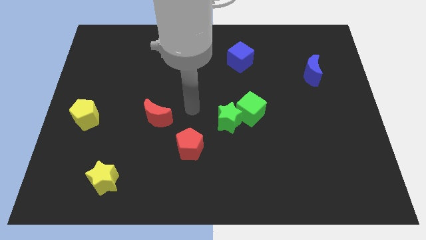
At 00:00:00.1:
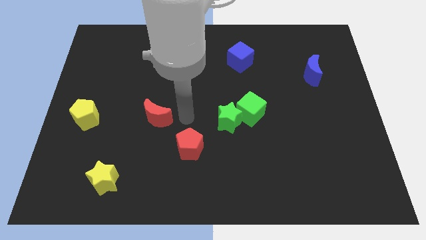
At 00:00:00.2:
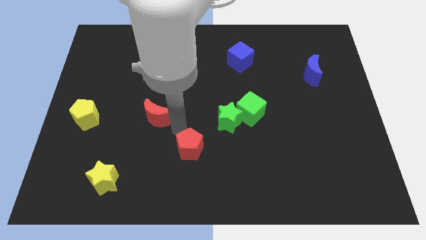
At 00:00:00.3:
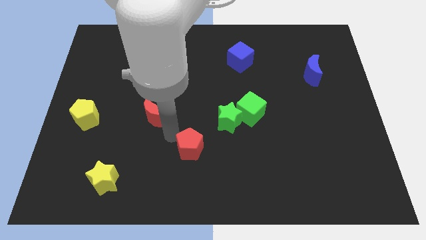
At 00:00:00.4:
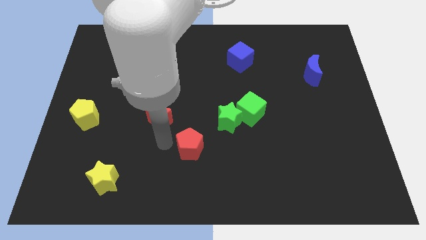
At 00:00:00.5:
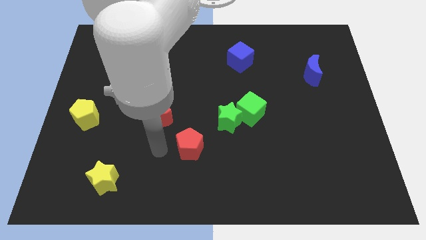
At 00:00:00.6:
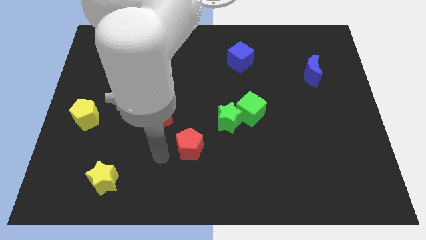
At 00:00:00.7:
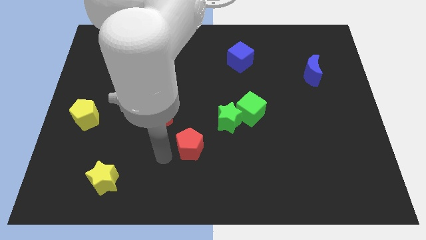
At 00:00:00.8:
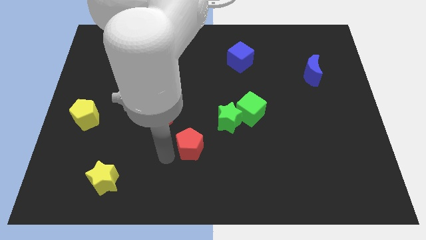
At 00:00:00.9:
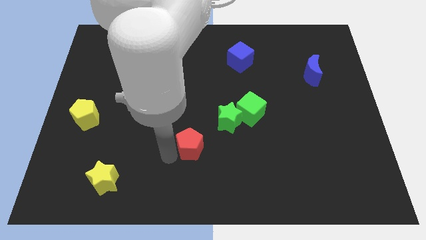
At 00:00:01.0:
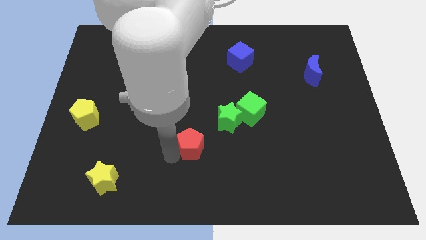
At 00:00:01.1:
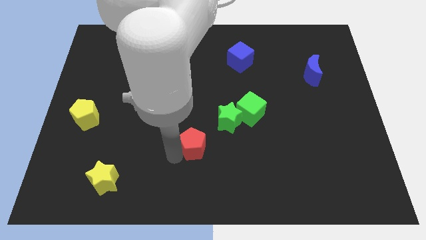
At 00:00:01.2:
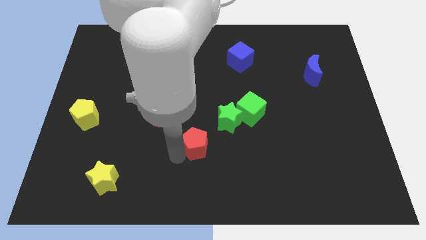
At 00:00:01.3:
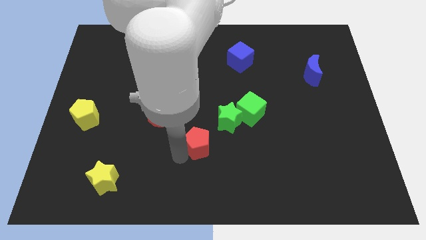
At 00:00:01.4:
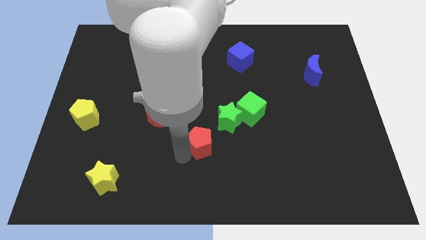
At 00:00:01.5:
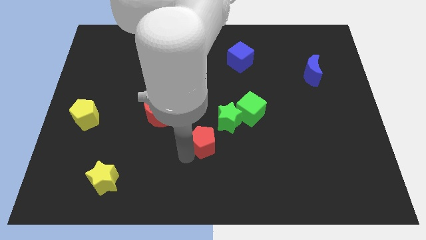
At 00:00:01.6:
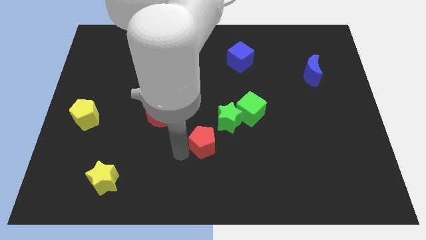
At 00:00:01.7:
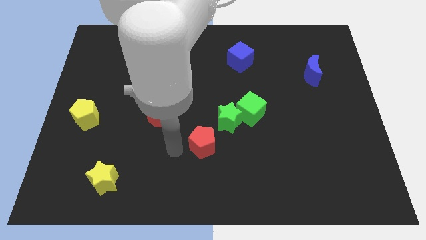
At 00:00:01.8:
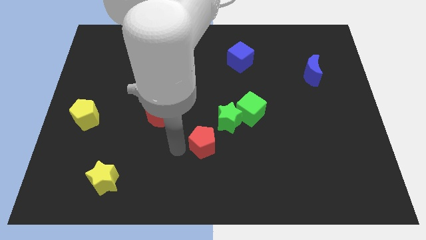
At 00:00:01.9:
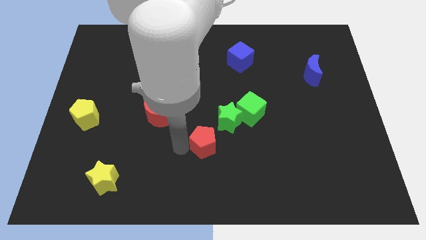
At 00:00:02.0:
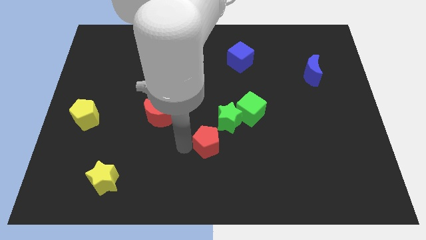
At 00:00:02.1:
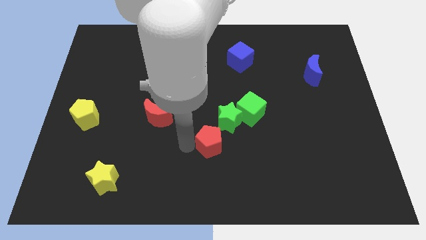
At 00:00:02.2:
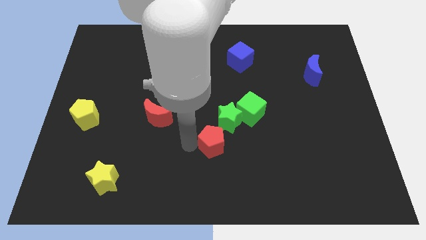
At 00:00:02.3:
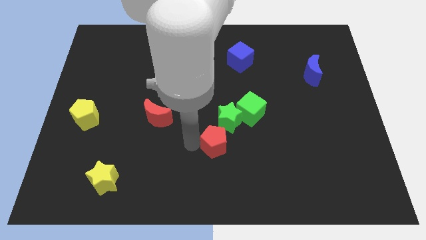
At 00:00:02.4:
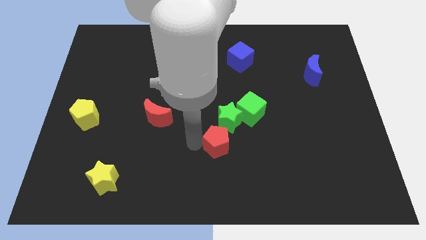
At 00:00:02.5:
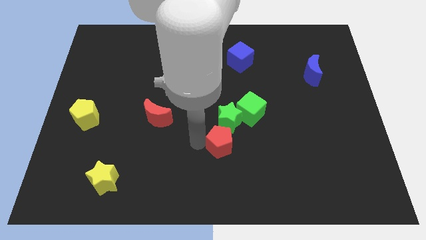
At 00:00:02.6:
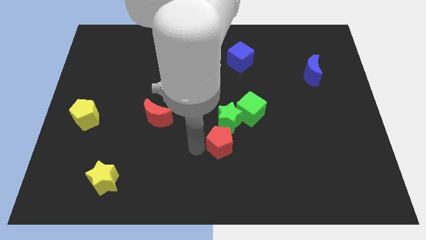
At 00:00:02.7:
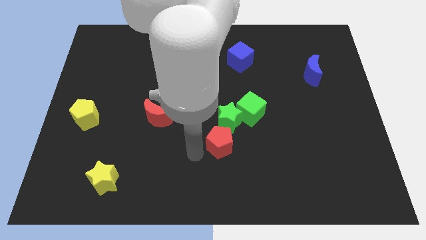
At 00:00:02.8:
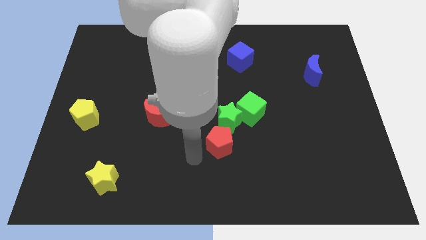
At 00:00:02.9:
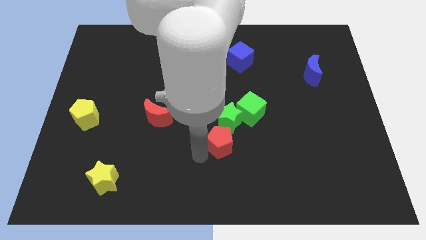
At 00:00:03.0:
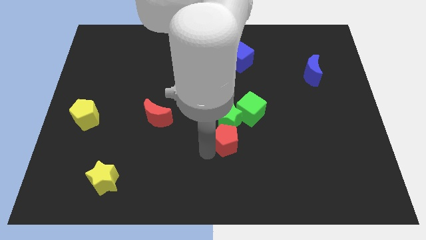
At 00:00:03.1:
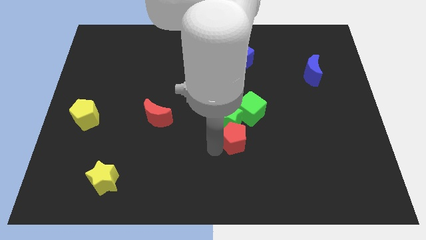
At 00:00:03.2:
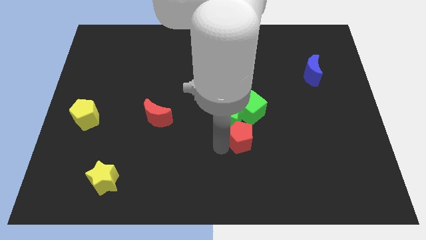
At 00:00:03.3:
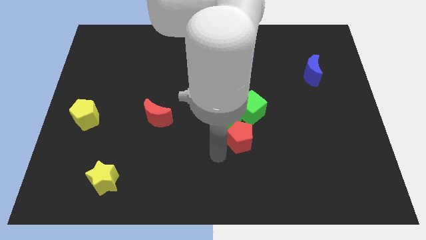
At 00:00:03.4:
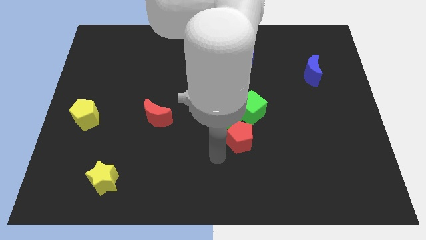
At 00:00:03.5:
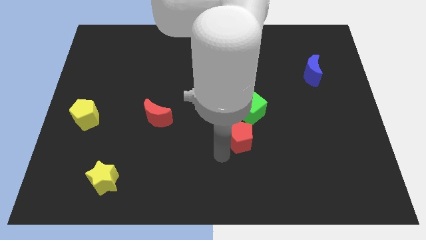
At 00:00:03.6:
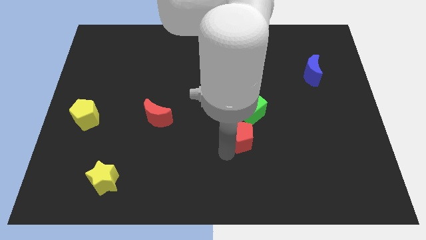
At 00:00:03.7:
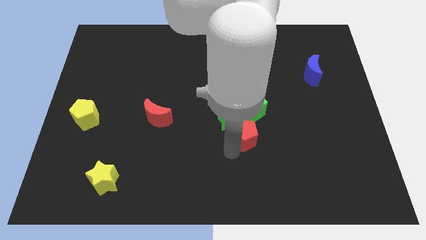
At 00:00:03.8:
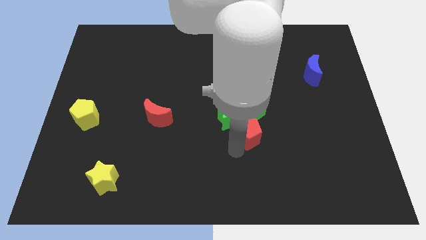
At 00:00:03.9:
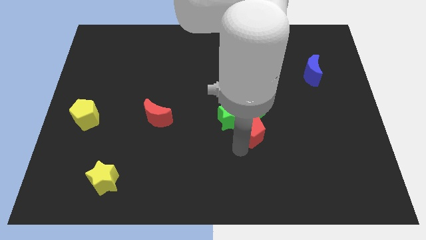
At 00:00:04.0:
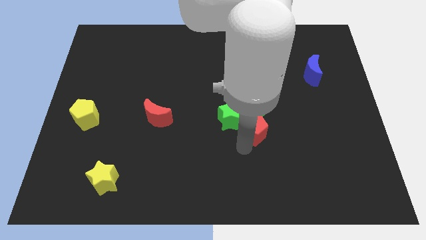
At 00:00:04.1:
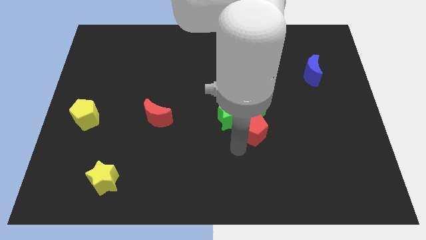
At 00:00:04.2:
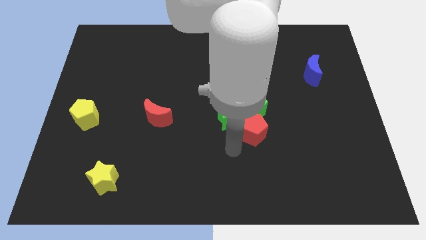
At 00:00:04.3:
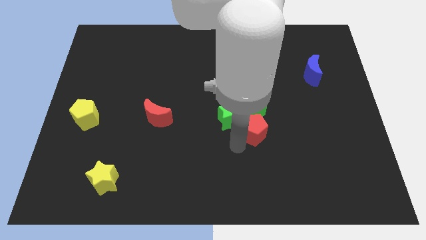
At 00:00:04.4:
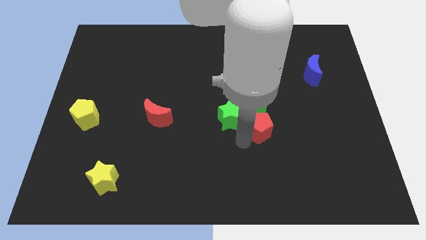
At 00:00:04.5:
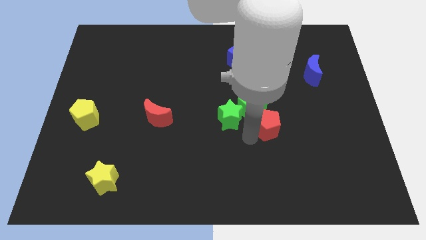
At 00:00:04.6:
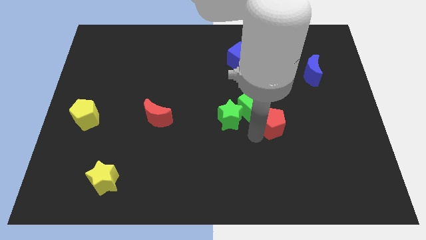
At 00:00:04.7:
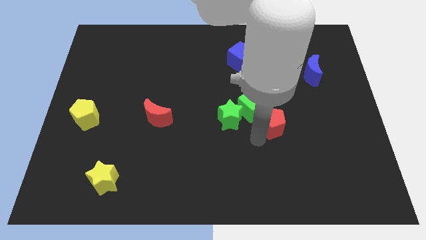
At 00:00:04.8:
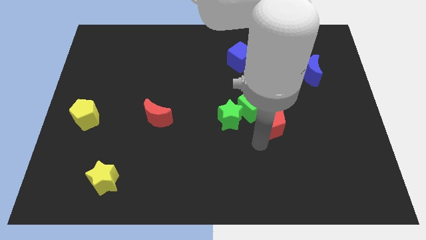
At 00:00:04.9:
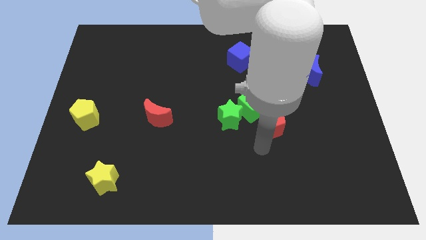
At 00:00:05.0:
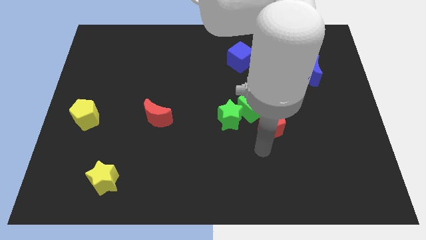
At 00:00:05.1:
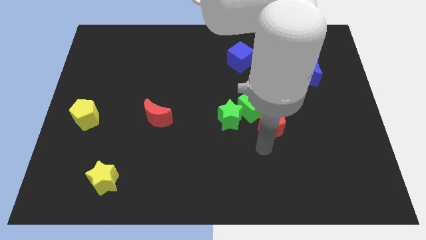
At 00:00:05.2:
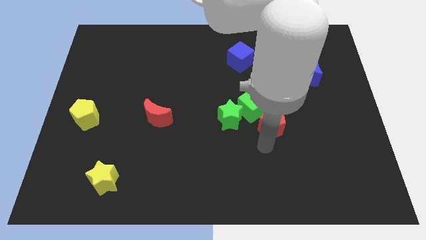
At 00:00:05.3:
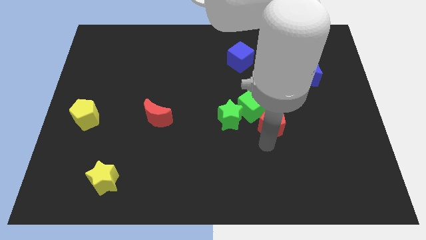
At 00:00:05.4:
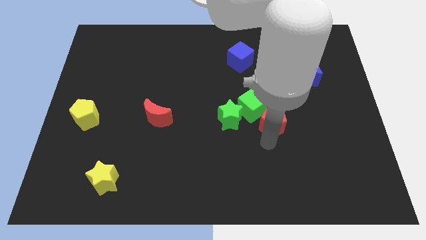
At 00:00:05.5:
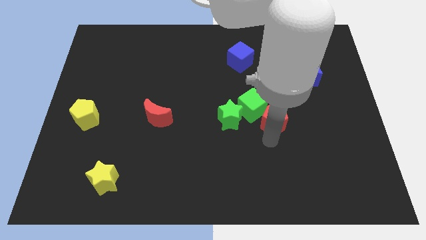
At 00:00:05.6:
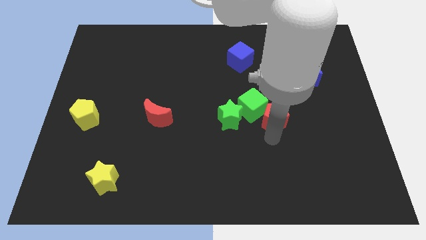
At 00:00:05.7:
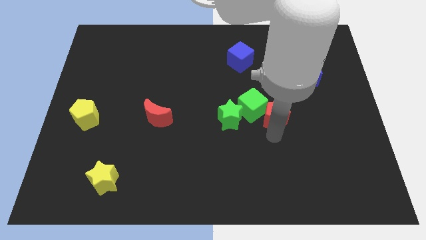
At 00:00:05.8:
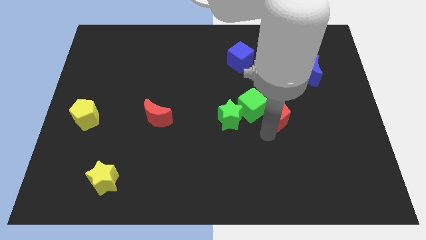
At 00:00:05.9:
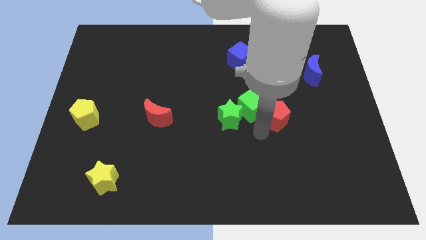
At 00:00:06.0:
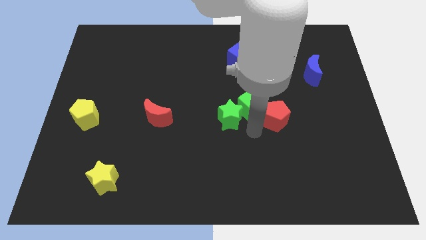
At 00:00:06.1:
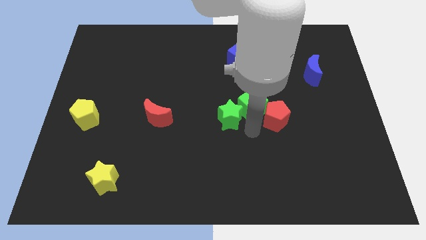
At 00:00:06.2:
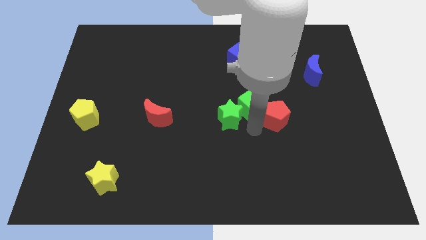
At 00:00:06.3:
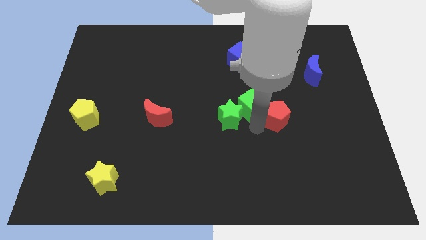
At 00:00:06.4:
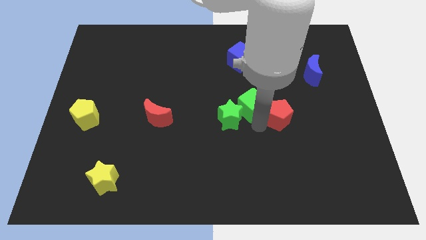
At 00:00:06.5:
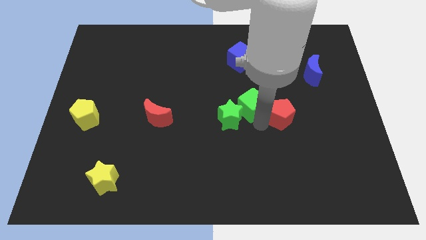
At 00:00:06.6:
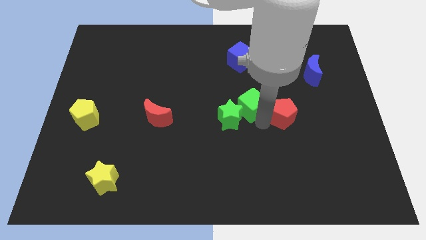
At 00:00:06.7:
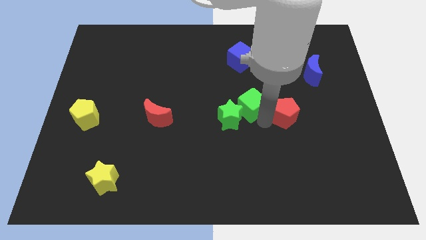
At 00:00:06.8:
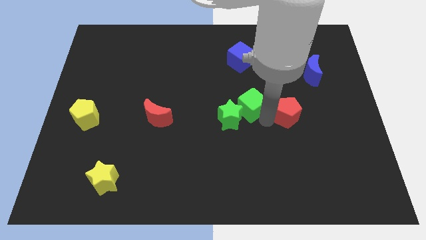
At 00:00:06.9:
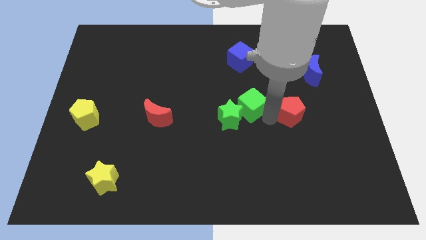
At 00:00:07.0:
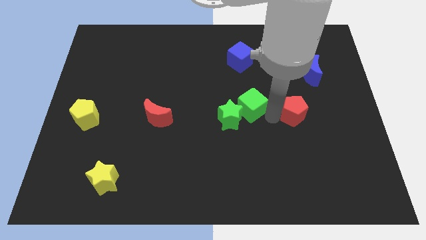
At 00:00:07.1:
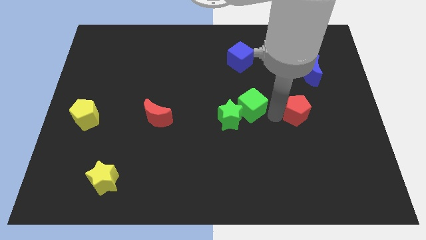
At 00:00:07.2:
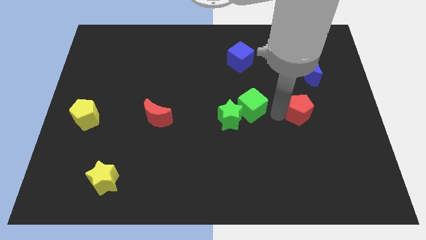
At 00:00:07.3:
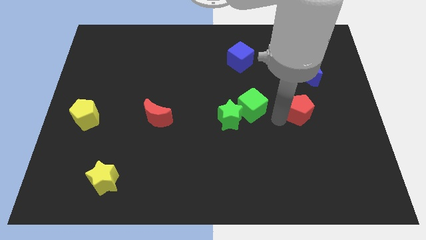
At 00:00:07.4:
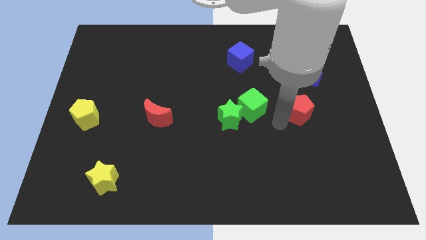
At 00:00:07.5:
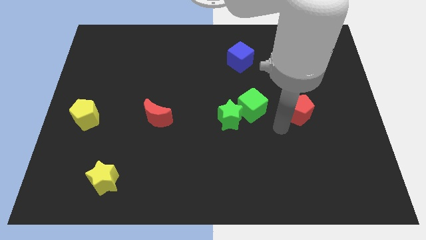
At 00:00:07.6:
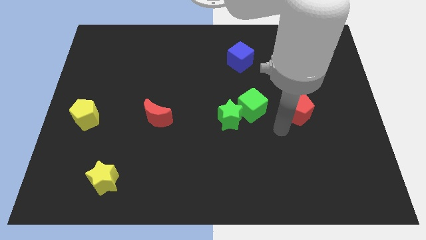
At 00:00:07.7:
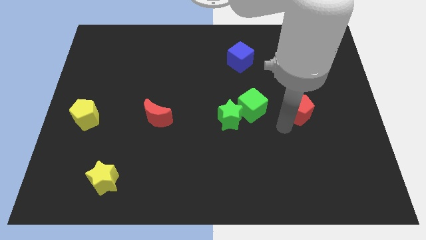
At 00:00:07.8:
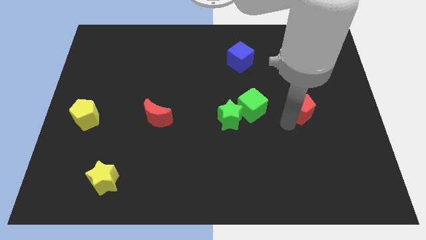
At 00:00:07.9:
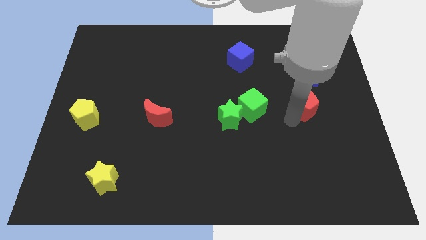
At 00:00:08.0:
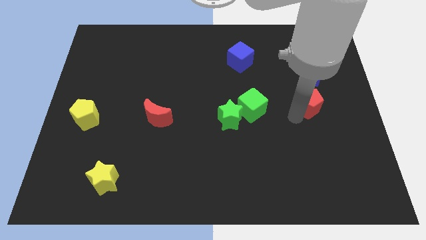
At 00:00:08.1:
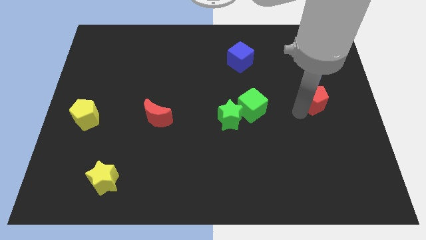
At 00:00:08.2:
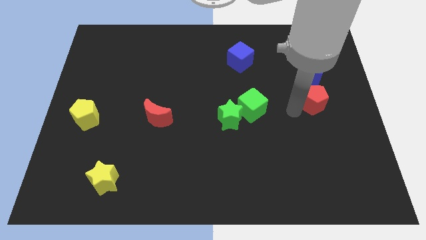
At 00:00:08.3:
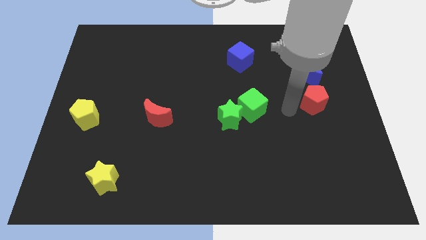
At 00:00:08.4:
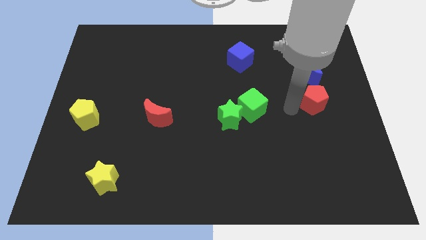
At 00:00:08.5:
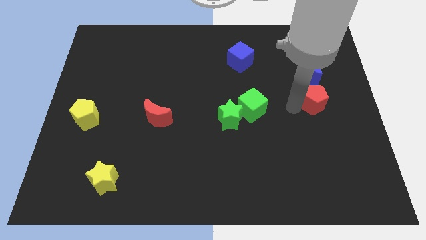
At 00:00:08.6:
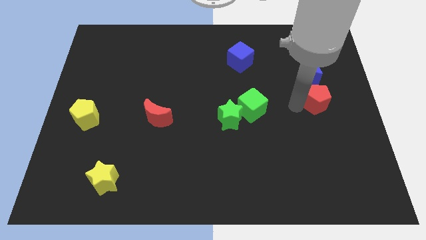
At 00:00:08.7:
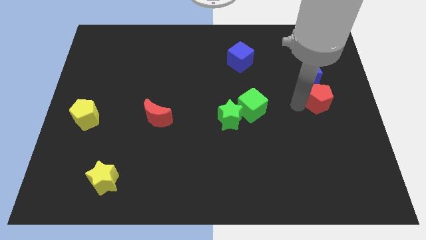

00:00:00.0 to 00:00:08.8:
slide the red pentagon to the center right
